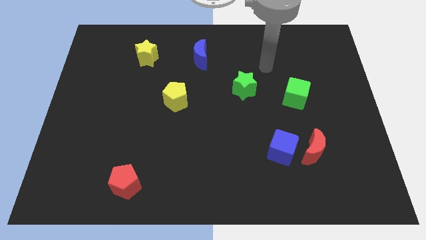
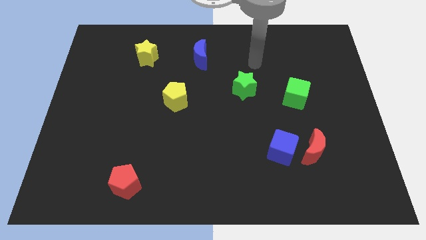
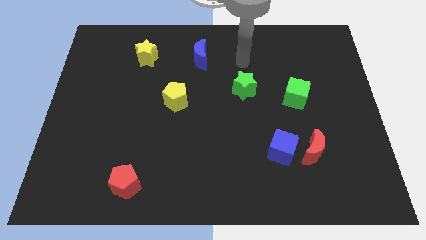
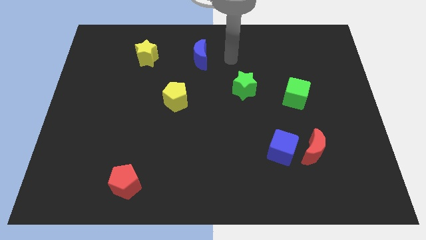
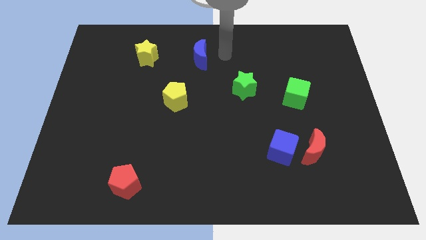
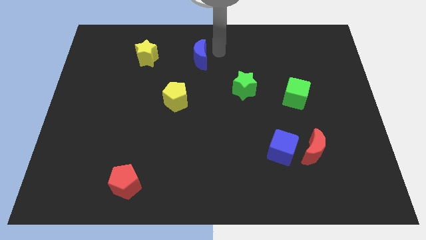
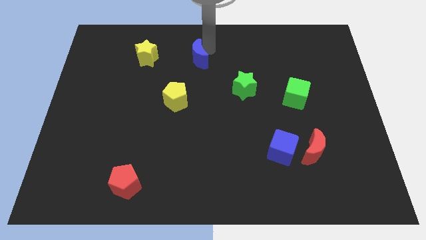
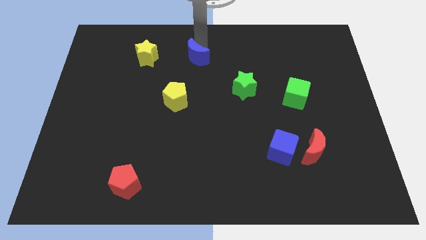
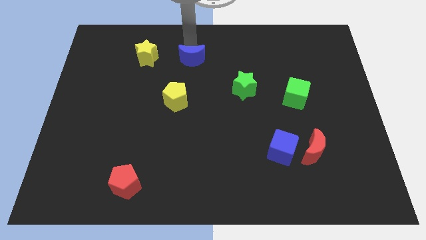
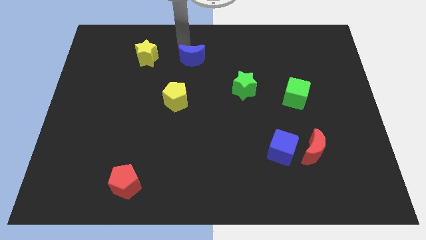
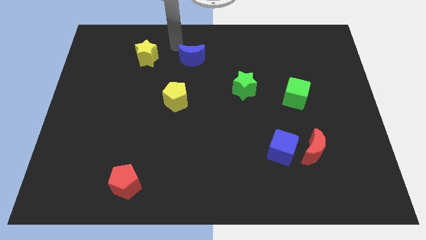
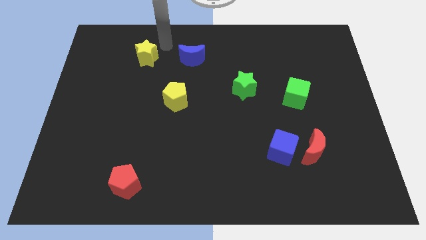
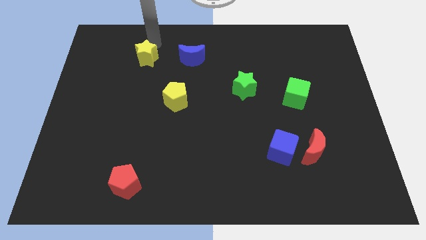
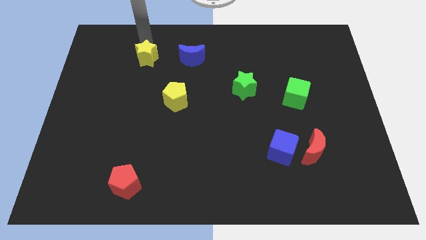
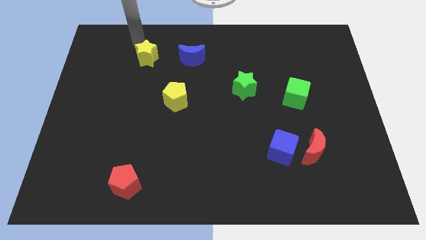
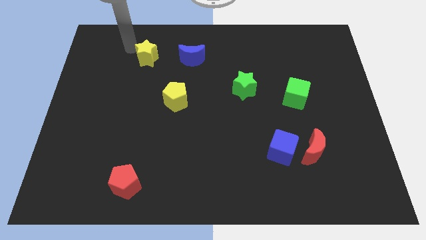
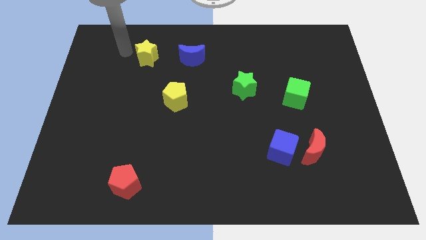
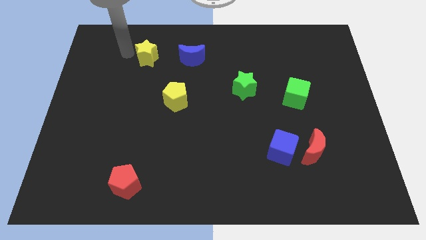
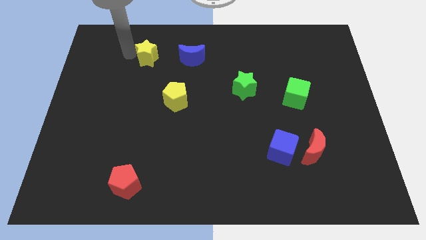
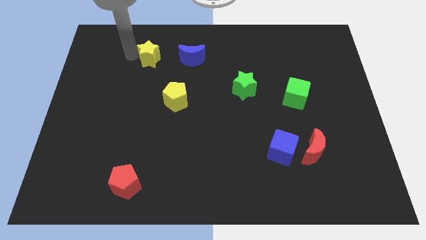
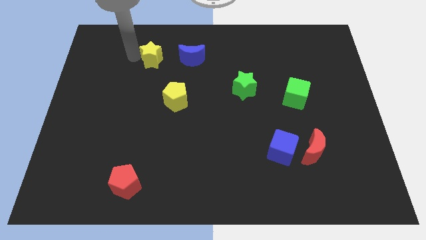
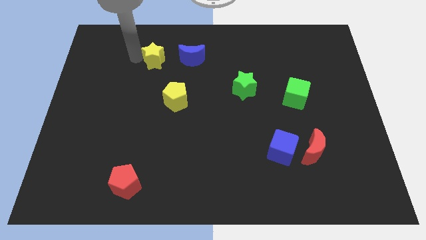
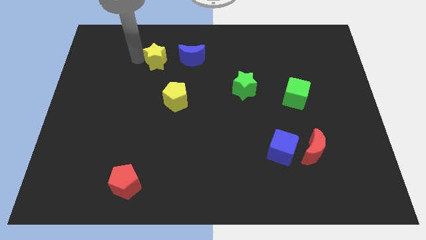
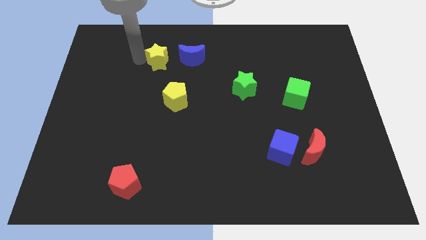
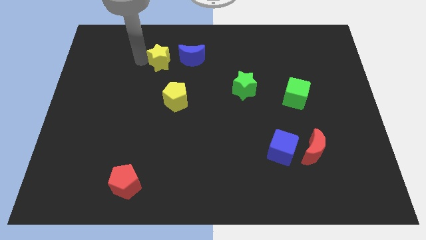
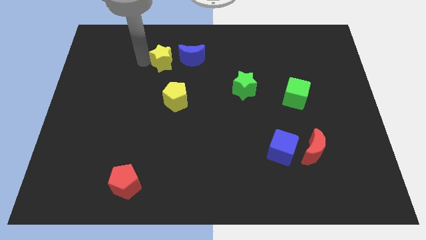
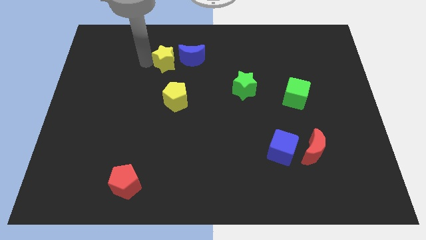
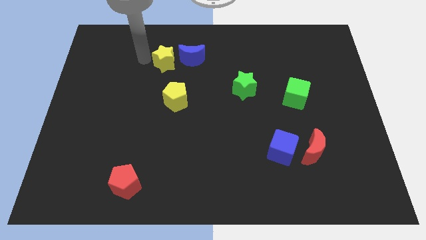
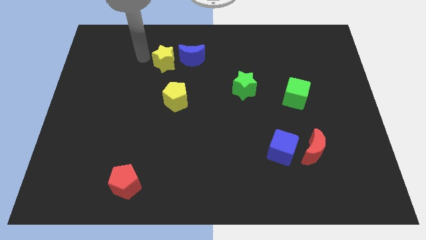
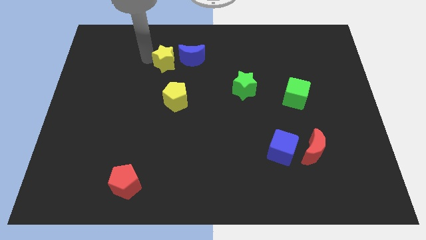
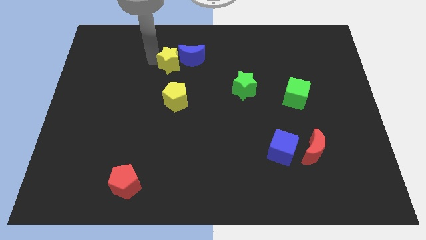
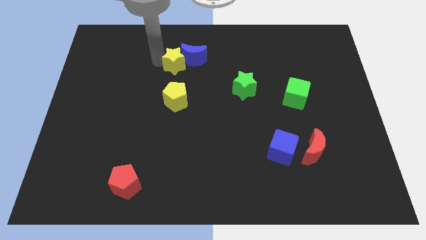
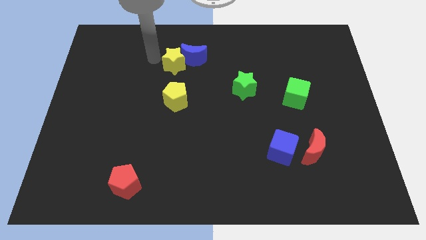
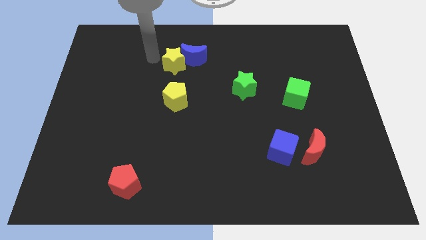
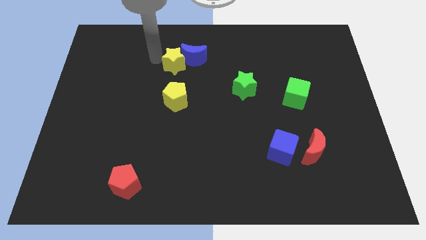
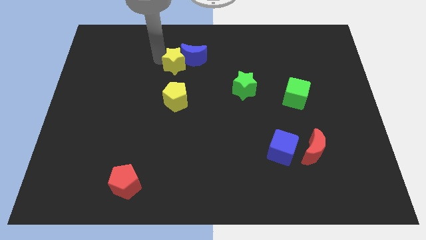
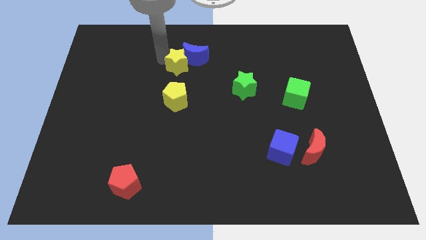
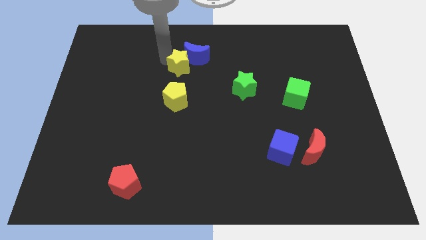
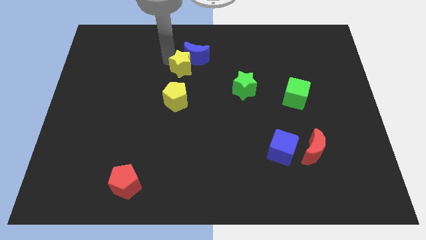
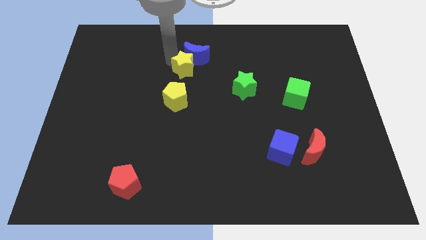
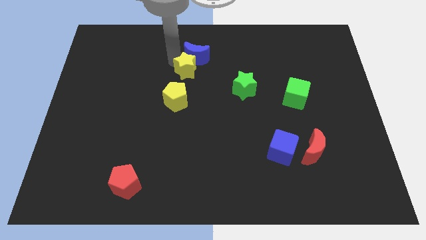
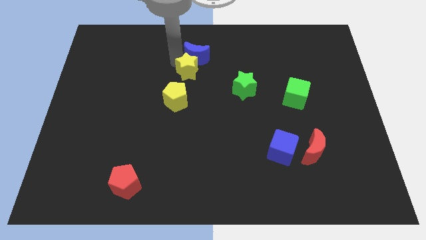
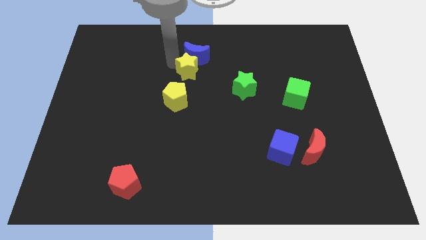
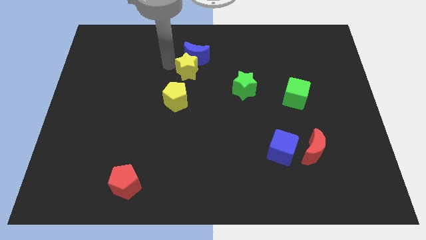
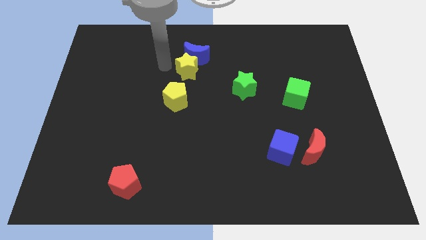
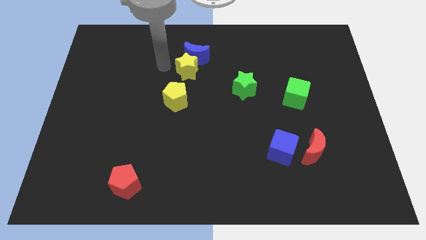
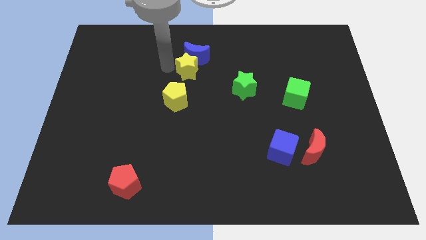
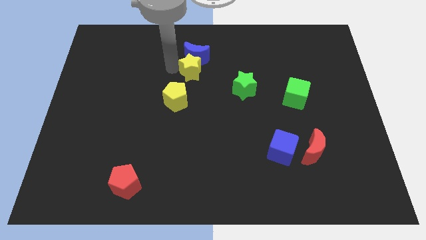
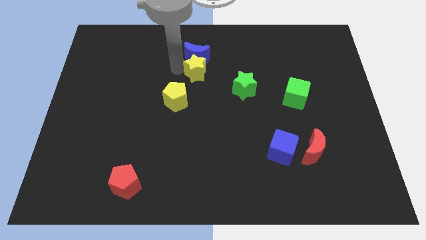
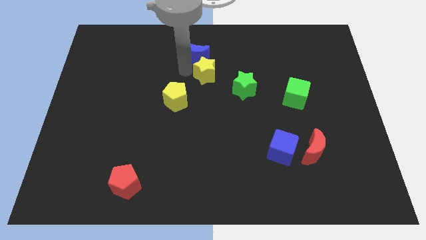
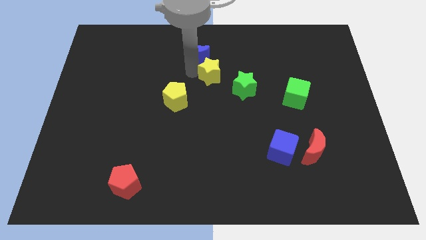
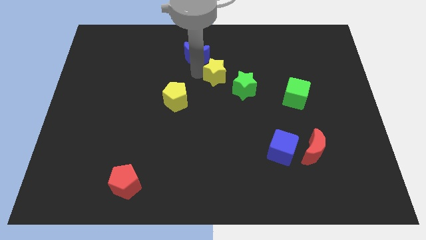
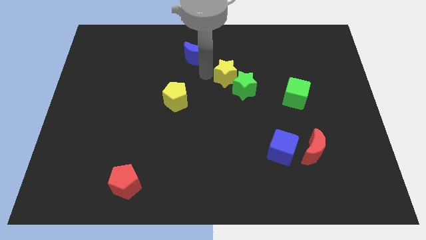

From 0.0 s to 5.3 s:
move the yellow star towards the green star
